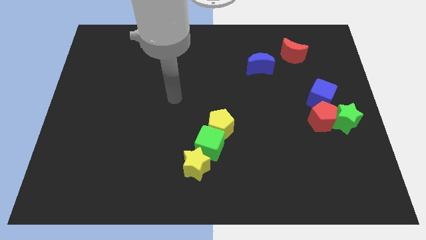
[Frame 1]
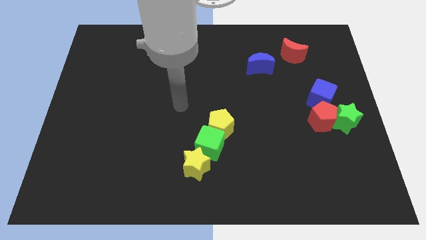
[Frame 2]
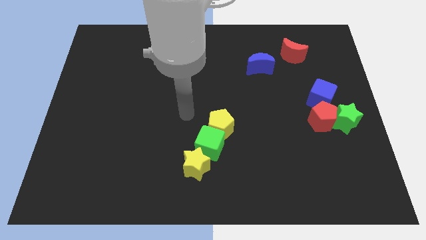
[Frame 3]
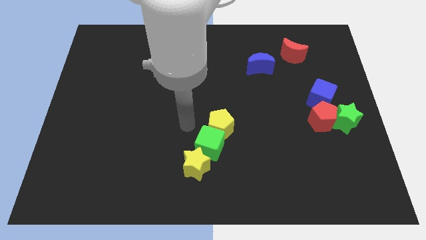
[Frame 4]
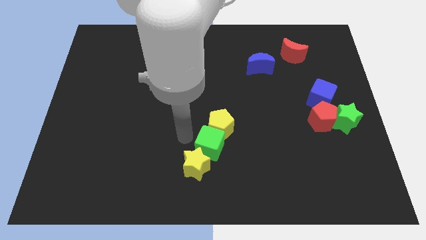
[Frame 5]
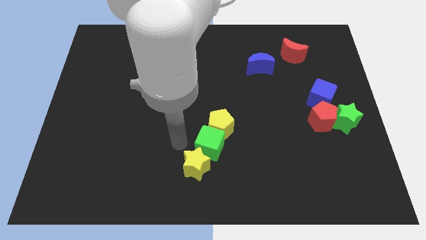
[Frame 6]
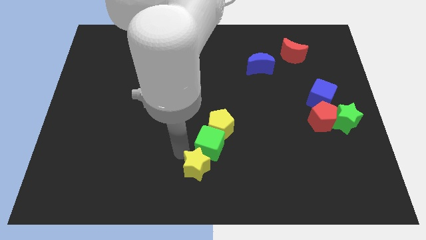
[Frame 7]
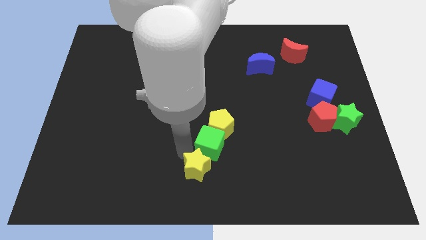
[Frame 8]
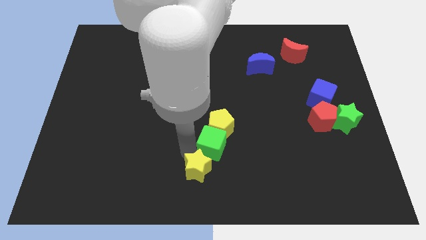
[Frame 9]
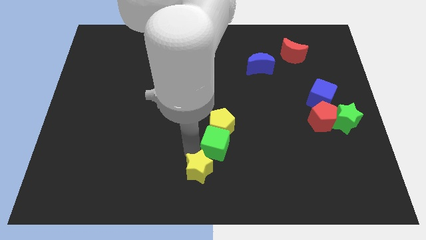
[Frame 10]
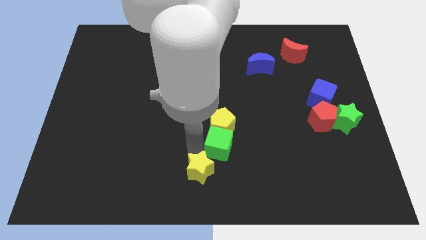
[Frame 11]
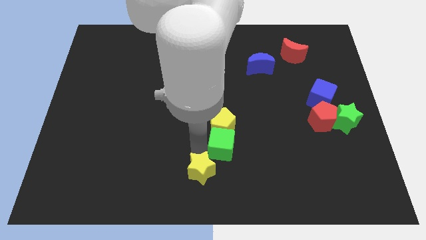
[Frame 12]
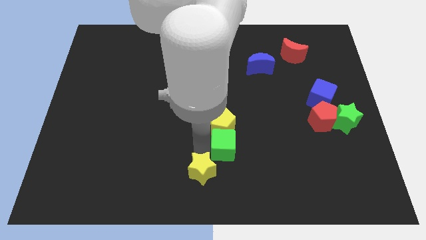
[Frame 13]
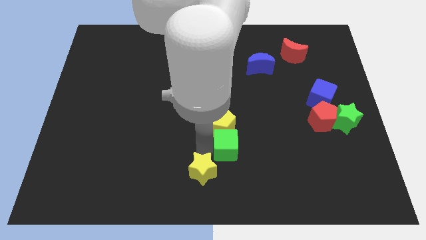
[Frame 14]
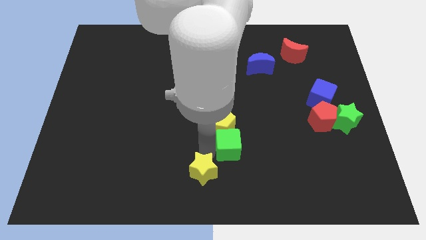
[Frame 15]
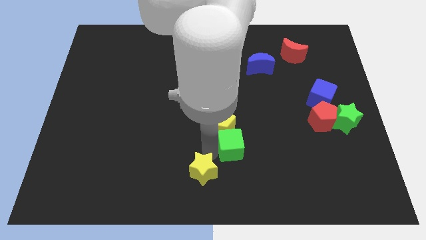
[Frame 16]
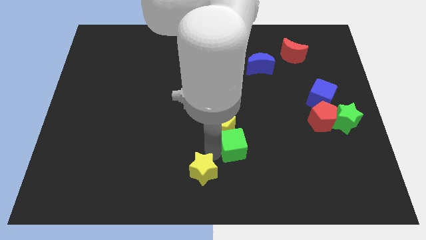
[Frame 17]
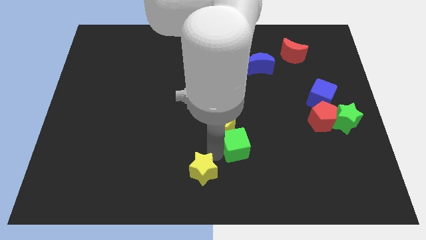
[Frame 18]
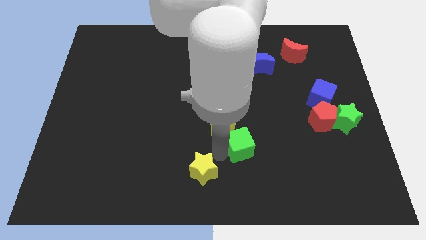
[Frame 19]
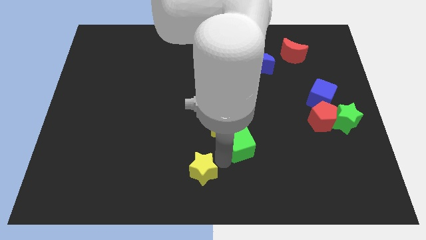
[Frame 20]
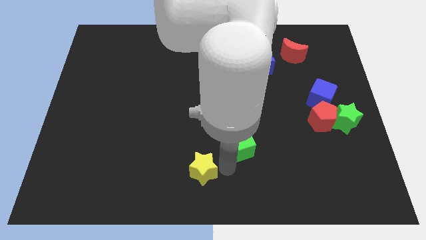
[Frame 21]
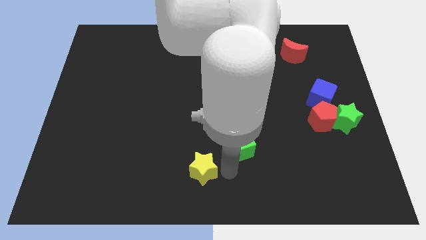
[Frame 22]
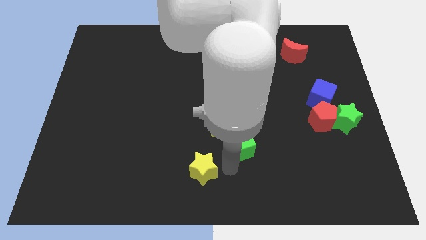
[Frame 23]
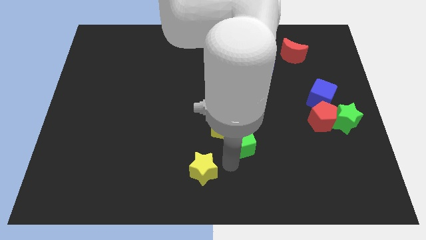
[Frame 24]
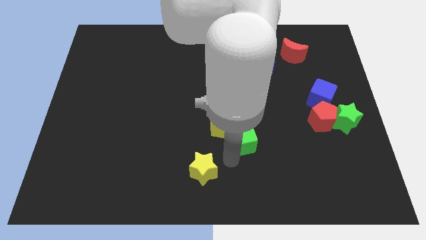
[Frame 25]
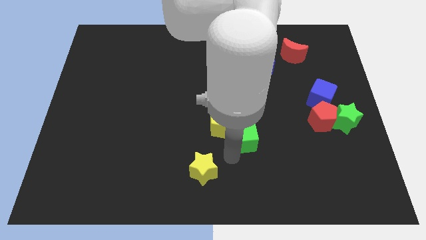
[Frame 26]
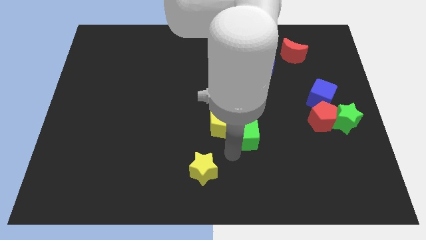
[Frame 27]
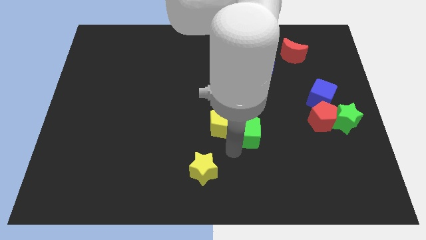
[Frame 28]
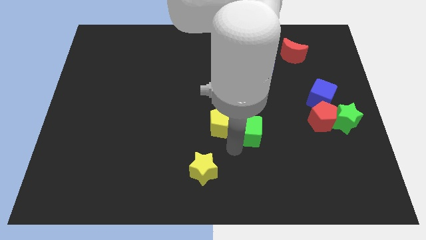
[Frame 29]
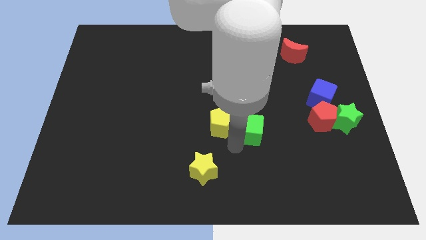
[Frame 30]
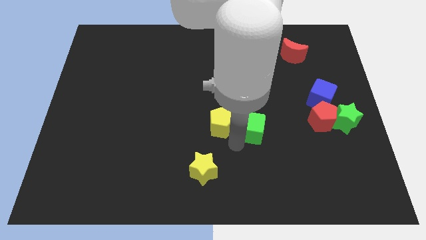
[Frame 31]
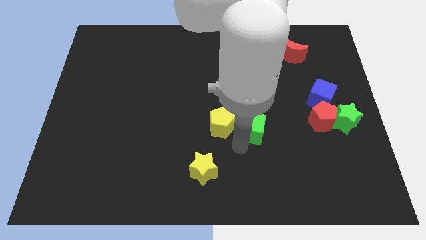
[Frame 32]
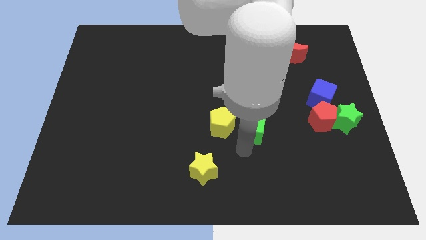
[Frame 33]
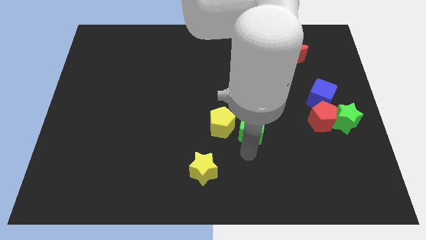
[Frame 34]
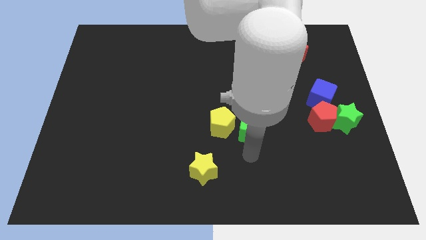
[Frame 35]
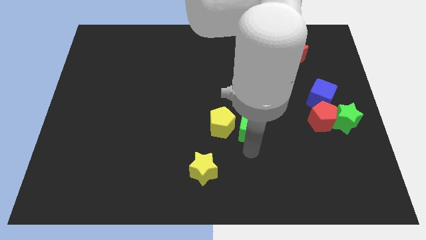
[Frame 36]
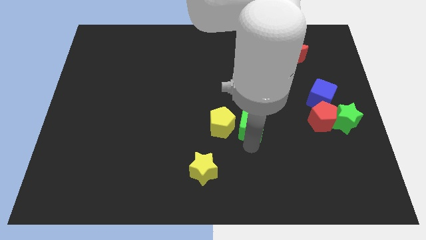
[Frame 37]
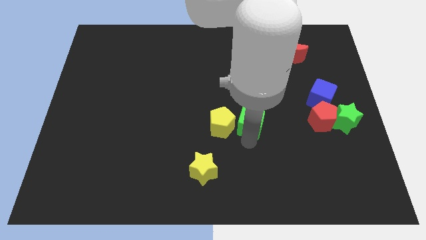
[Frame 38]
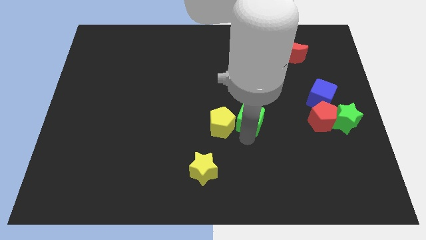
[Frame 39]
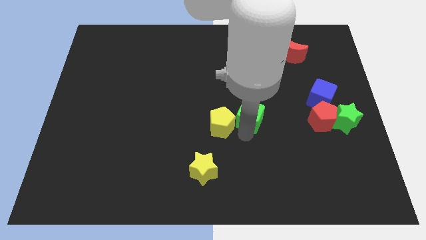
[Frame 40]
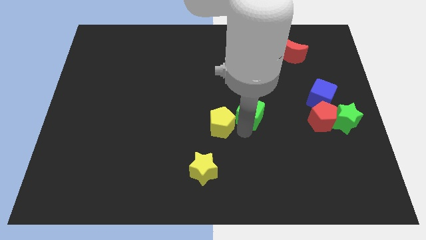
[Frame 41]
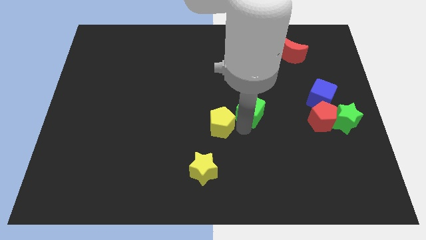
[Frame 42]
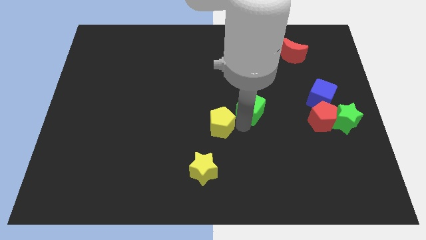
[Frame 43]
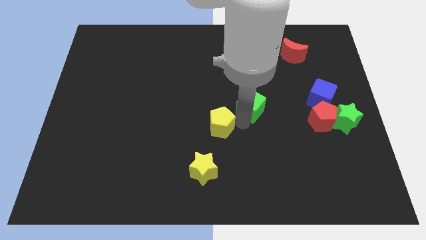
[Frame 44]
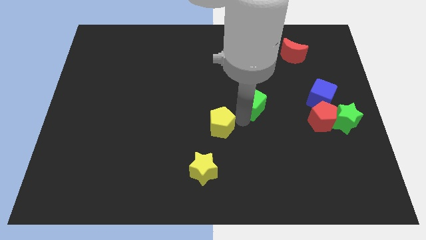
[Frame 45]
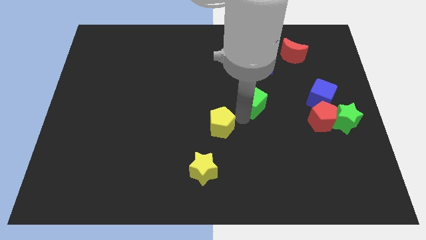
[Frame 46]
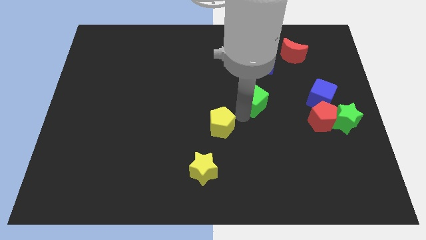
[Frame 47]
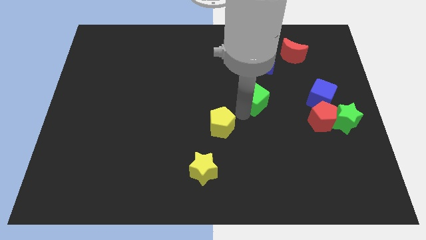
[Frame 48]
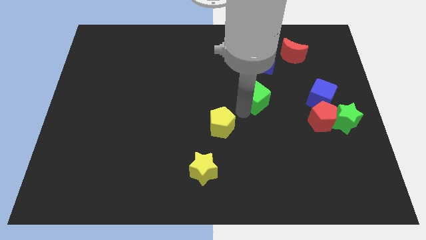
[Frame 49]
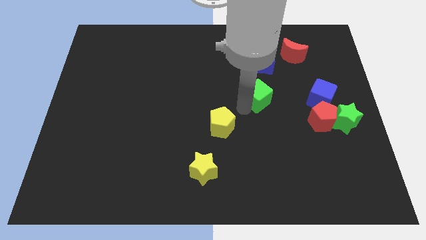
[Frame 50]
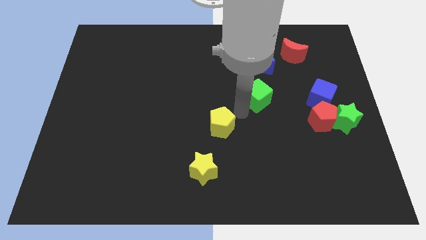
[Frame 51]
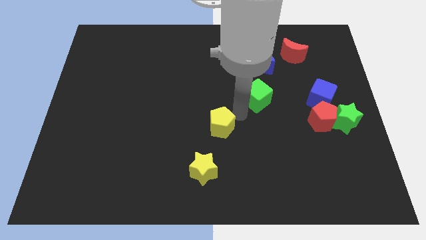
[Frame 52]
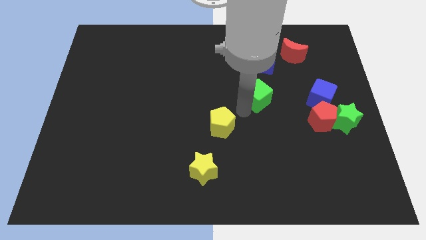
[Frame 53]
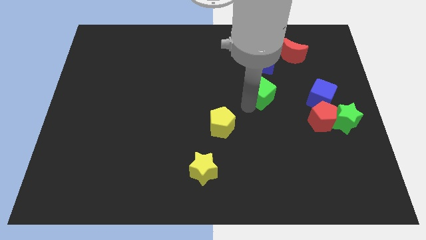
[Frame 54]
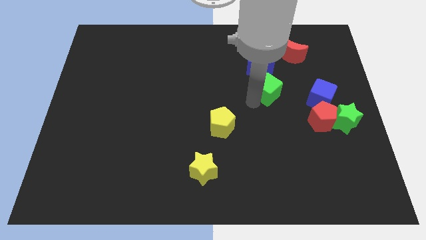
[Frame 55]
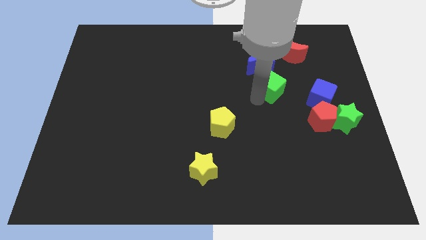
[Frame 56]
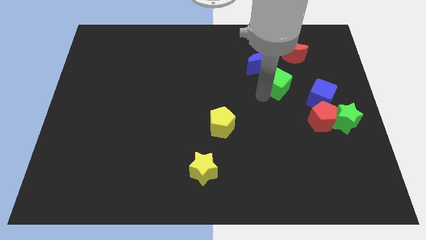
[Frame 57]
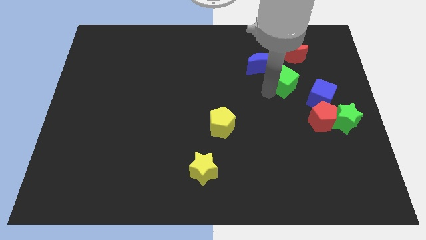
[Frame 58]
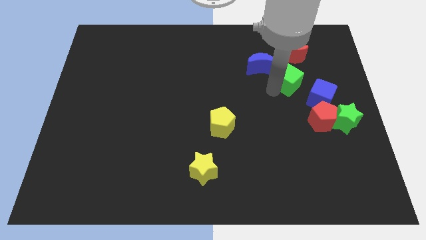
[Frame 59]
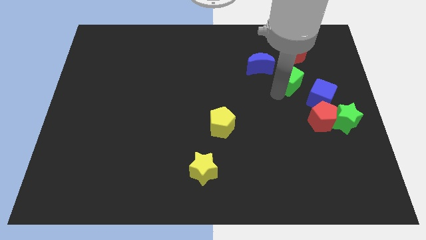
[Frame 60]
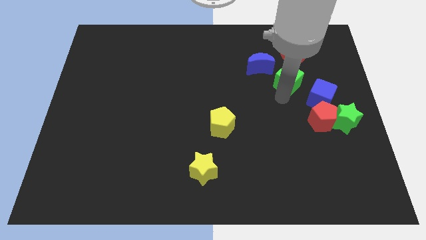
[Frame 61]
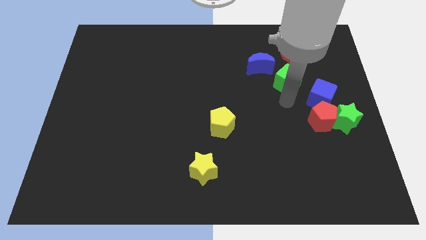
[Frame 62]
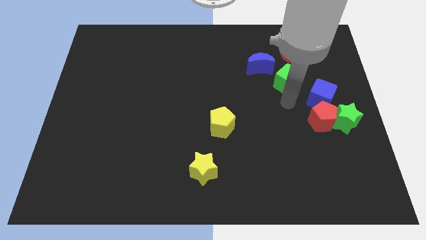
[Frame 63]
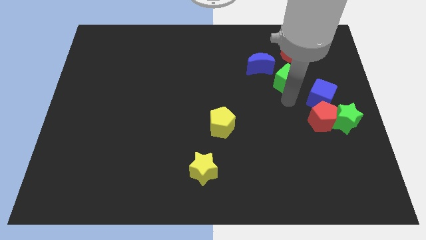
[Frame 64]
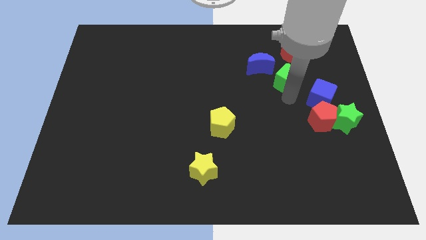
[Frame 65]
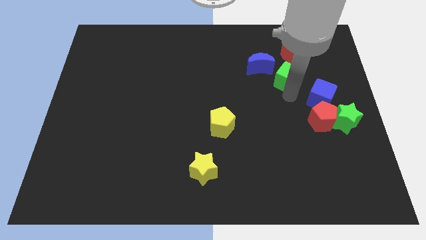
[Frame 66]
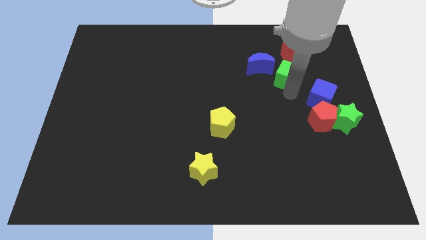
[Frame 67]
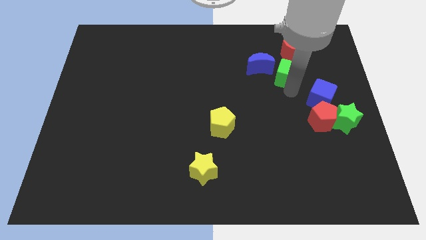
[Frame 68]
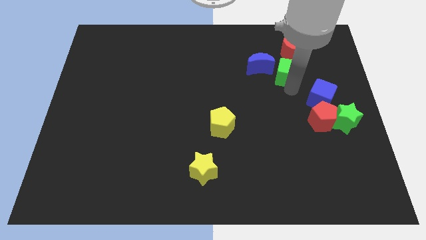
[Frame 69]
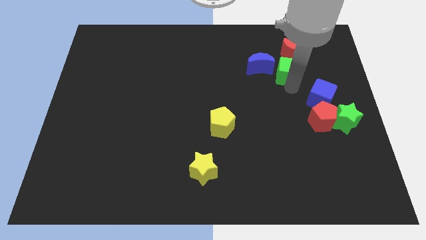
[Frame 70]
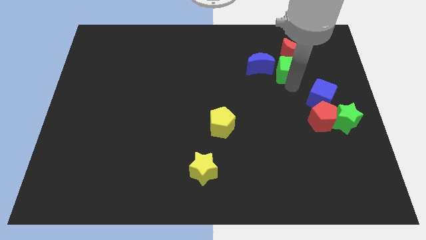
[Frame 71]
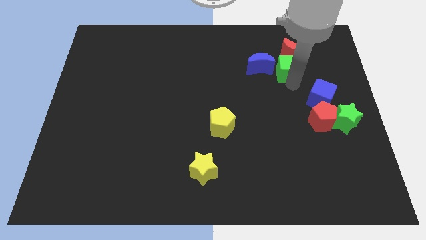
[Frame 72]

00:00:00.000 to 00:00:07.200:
push the green cube to the red moon
